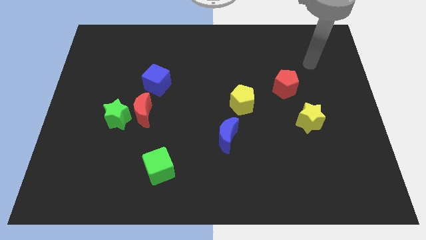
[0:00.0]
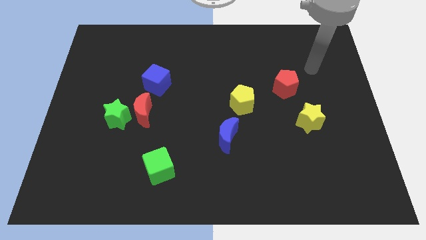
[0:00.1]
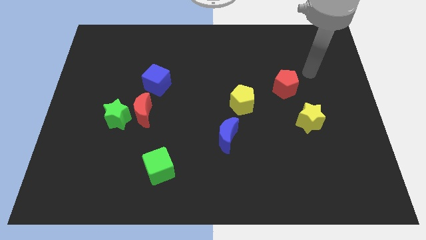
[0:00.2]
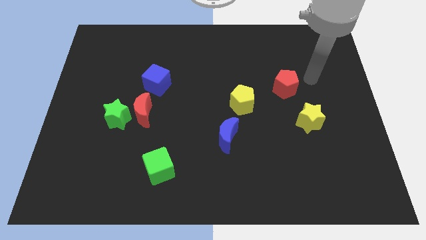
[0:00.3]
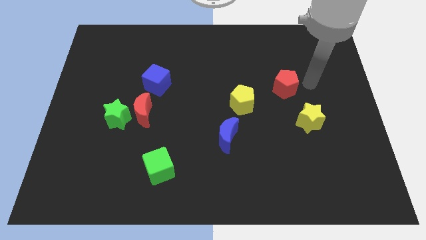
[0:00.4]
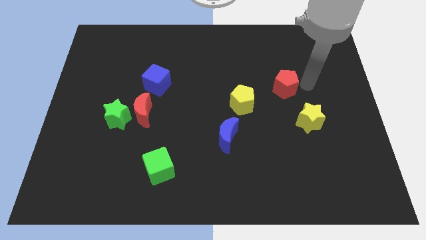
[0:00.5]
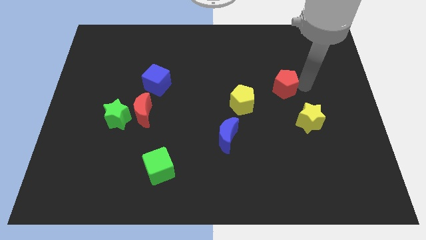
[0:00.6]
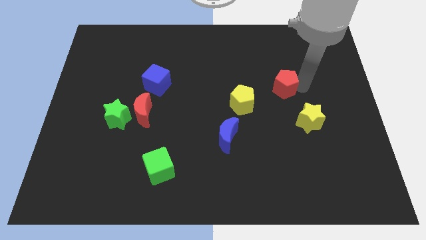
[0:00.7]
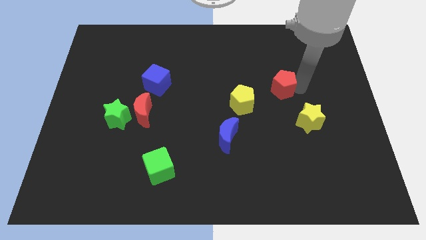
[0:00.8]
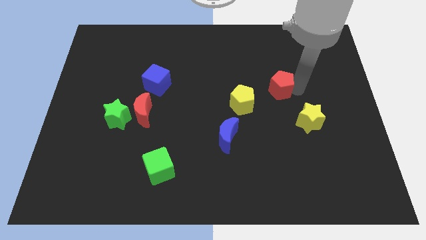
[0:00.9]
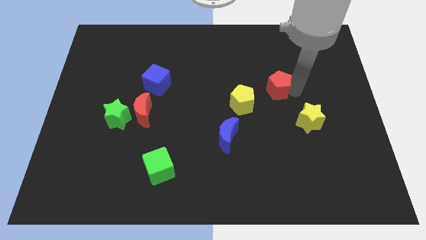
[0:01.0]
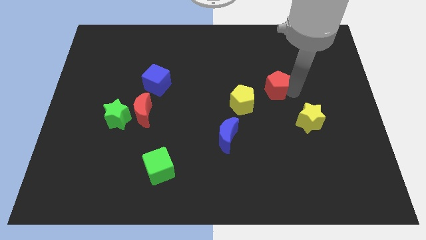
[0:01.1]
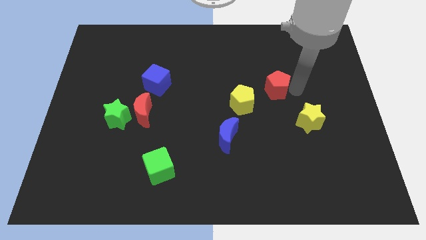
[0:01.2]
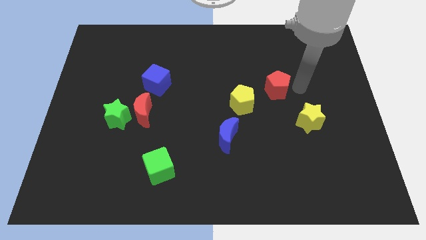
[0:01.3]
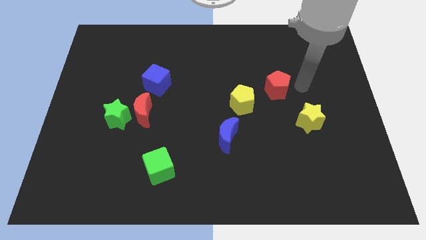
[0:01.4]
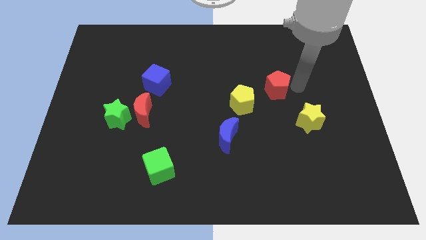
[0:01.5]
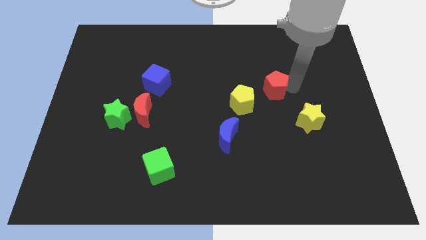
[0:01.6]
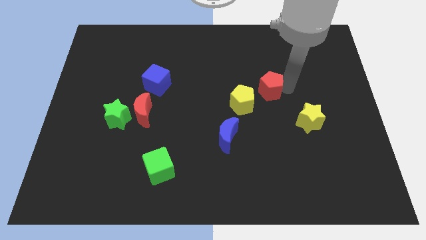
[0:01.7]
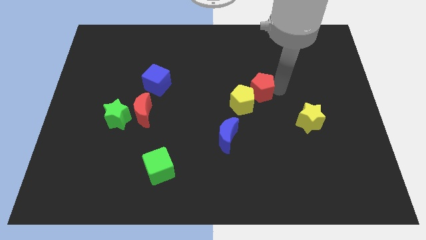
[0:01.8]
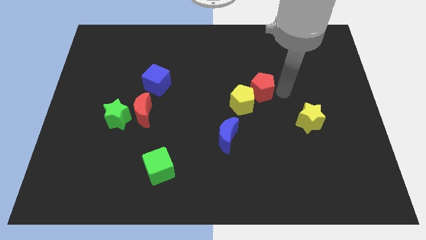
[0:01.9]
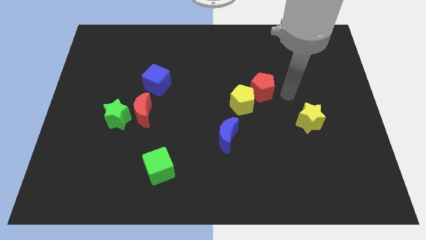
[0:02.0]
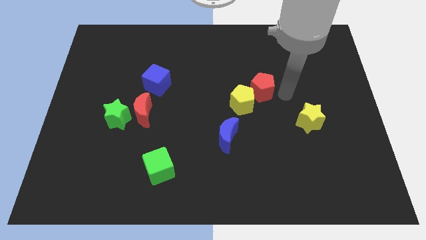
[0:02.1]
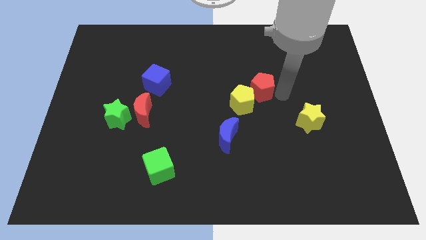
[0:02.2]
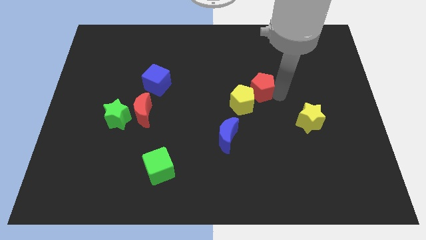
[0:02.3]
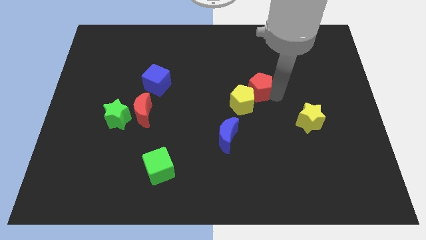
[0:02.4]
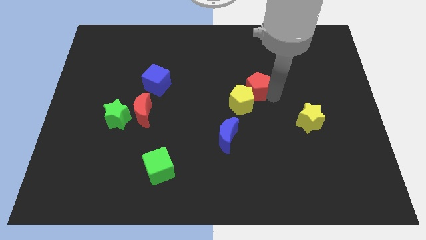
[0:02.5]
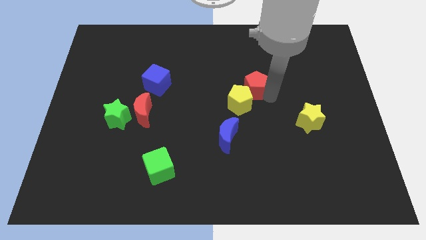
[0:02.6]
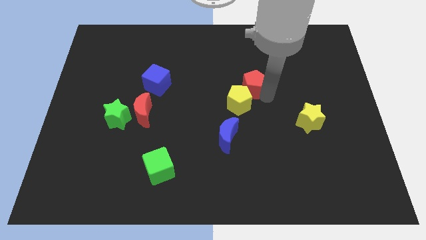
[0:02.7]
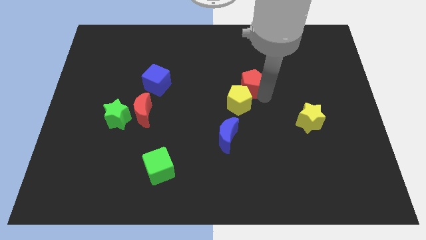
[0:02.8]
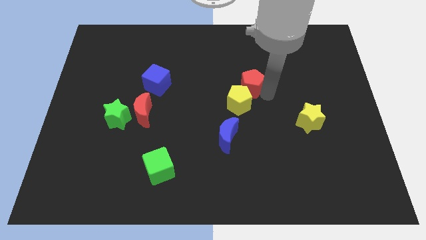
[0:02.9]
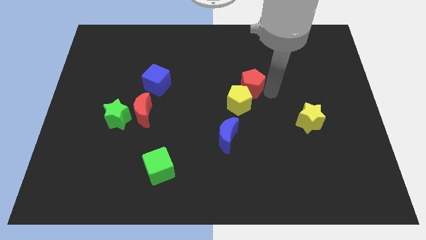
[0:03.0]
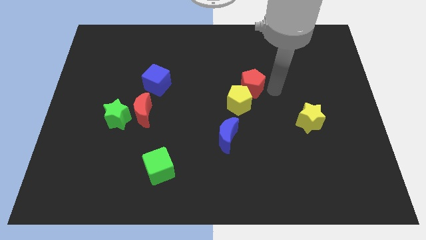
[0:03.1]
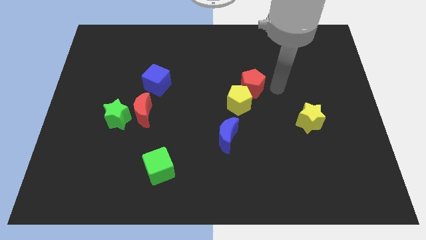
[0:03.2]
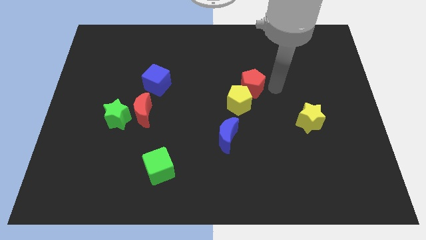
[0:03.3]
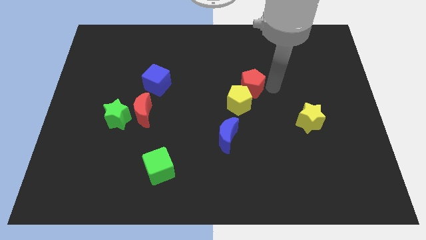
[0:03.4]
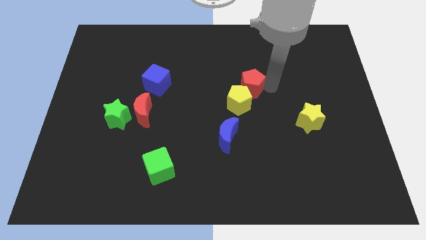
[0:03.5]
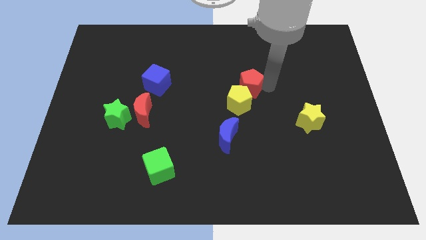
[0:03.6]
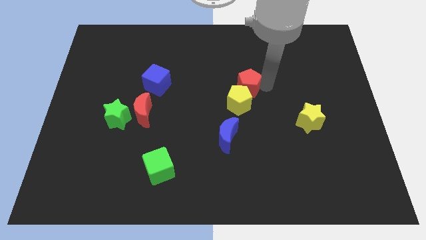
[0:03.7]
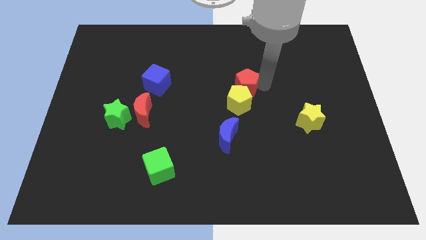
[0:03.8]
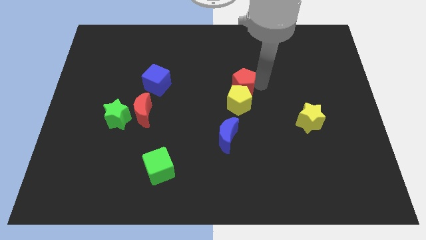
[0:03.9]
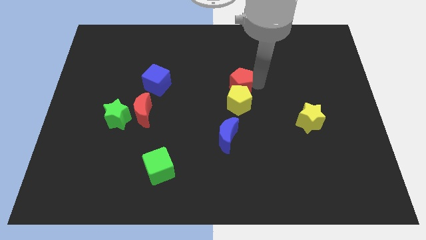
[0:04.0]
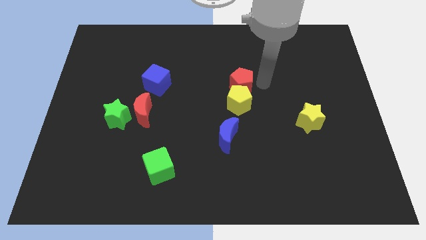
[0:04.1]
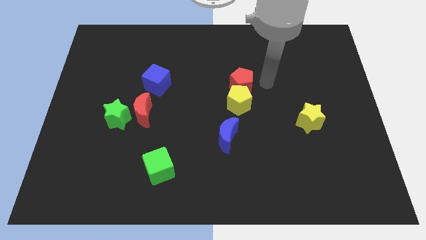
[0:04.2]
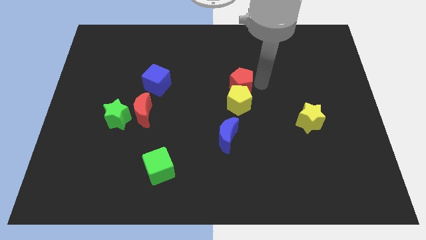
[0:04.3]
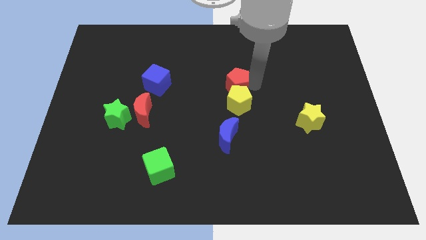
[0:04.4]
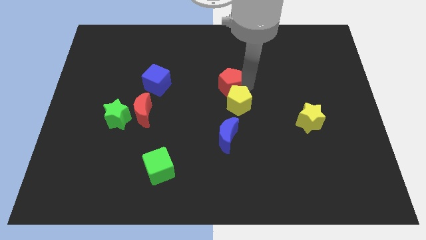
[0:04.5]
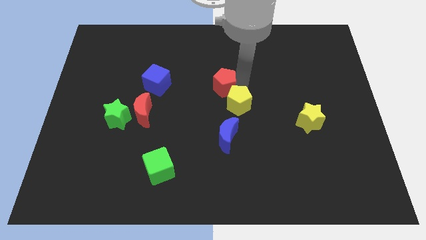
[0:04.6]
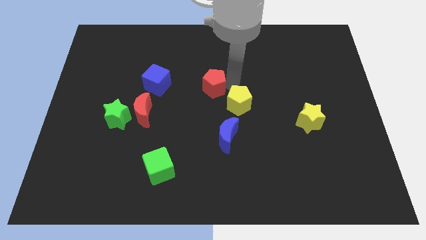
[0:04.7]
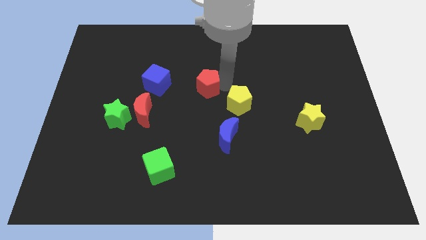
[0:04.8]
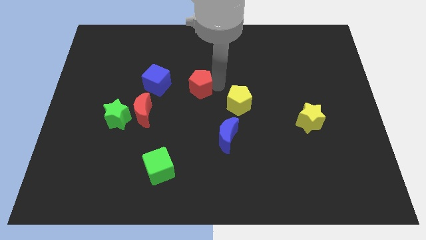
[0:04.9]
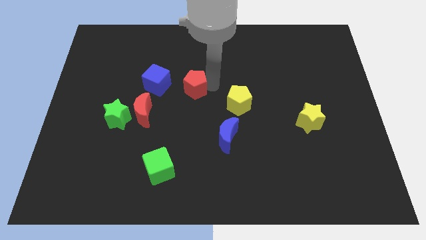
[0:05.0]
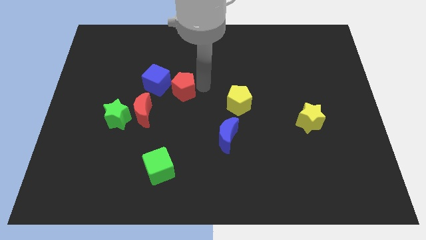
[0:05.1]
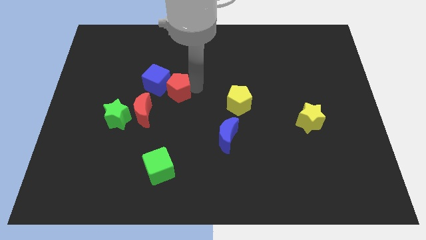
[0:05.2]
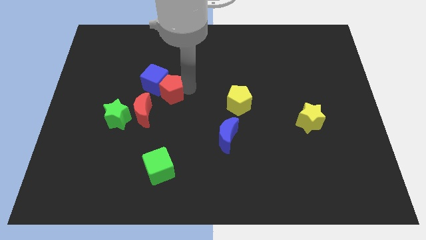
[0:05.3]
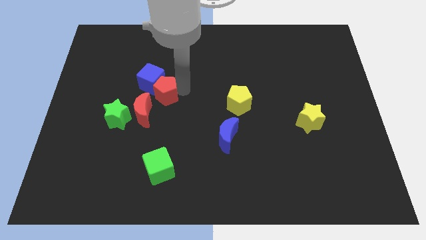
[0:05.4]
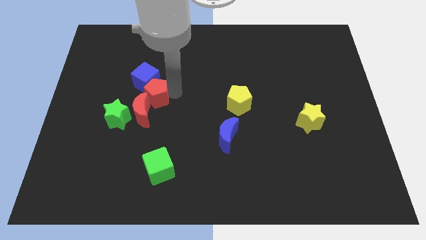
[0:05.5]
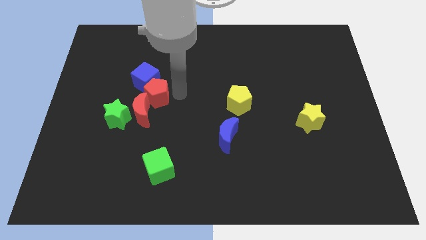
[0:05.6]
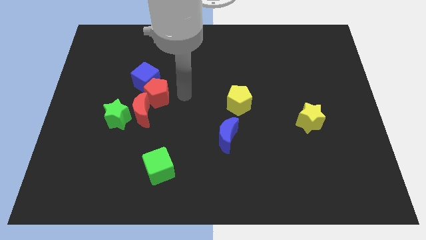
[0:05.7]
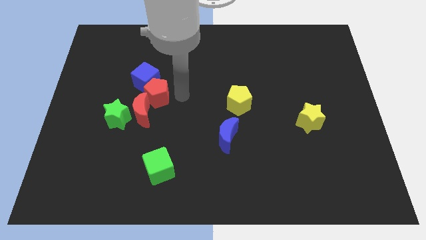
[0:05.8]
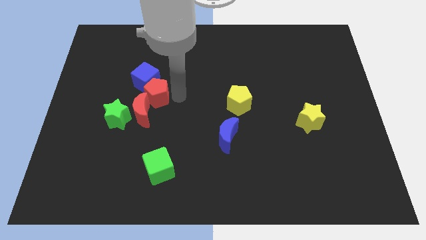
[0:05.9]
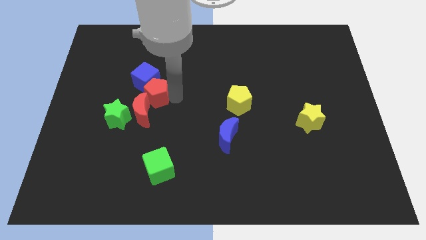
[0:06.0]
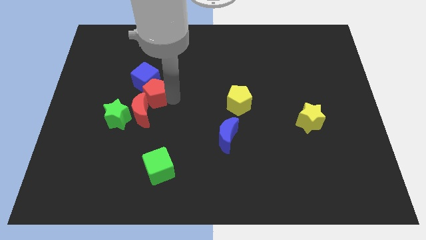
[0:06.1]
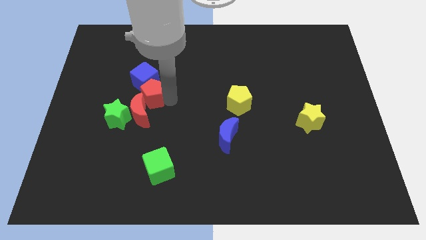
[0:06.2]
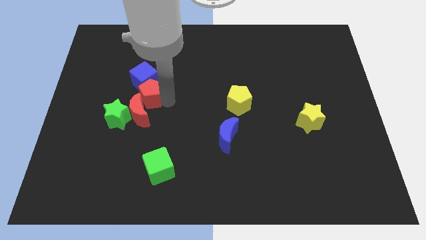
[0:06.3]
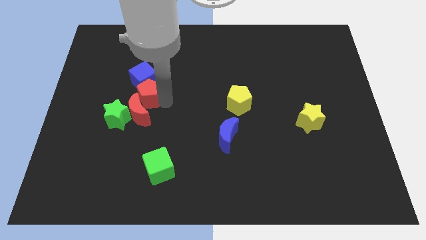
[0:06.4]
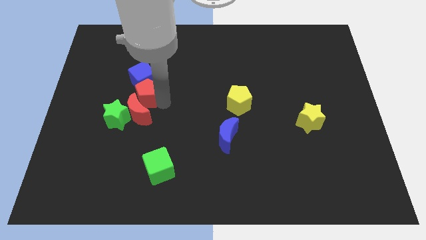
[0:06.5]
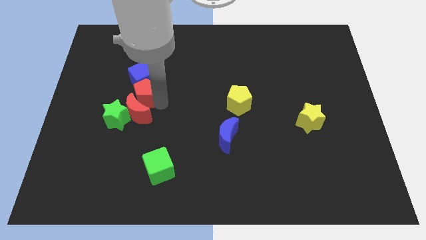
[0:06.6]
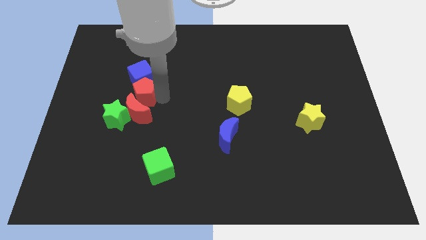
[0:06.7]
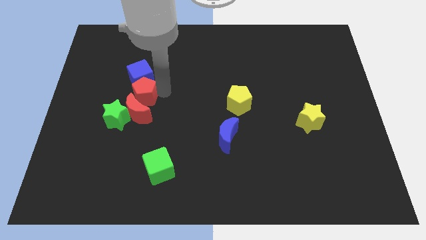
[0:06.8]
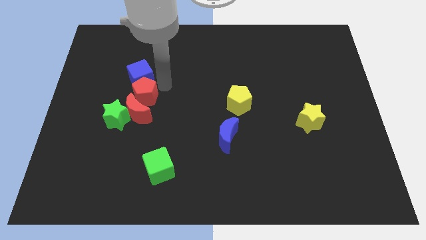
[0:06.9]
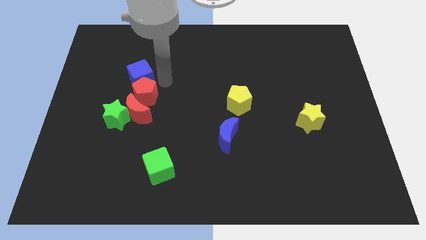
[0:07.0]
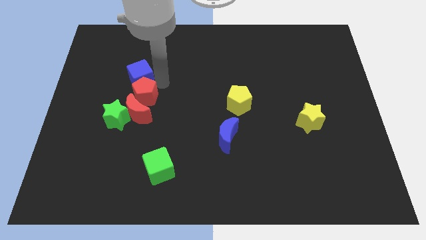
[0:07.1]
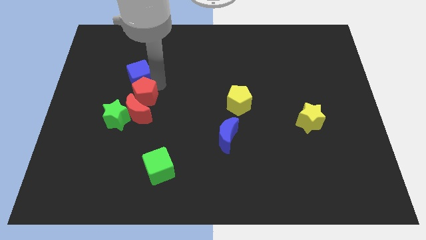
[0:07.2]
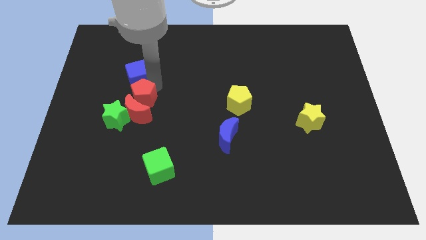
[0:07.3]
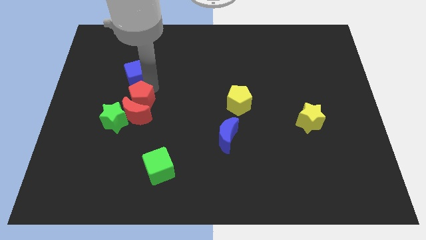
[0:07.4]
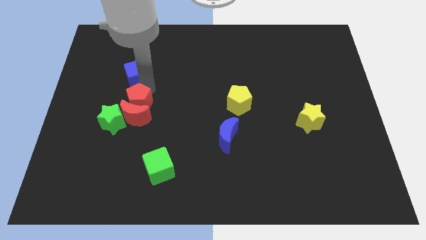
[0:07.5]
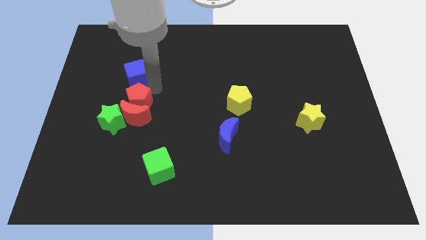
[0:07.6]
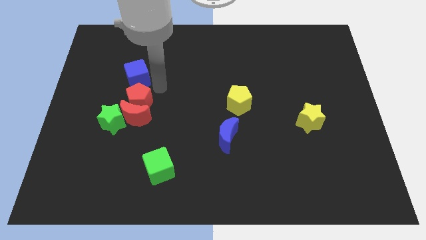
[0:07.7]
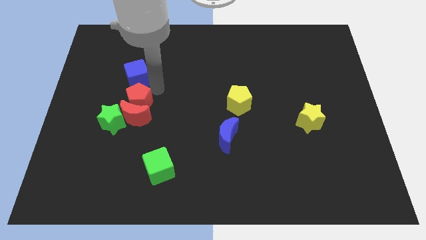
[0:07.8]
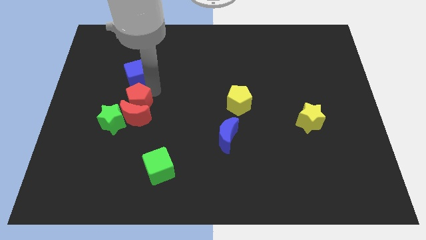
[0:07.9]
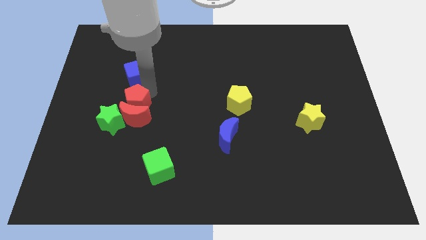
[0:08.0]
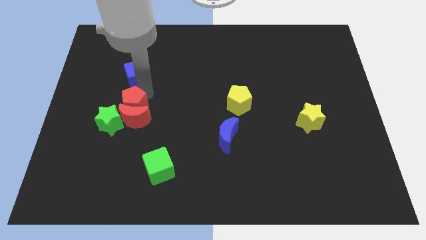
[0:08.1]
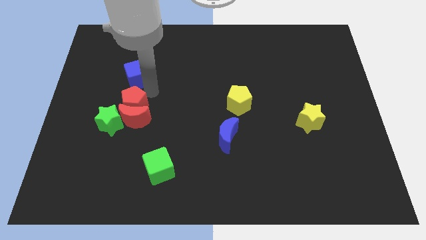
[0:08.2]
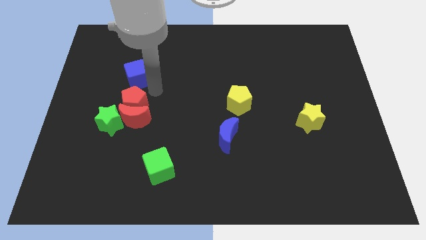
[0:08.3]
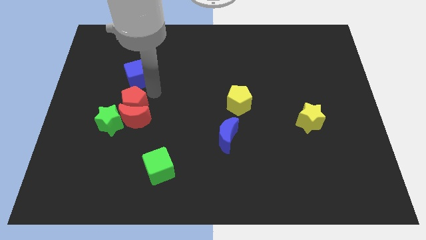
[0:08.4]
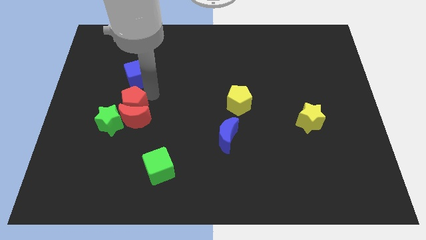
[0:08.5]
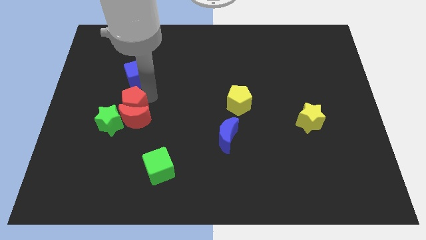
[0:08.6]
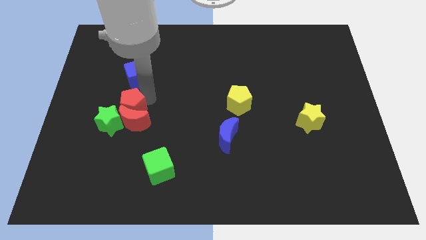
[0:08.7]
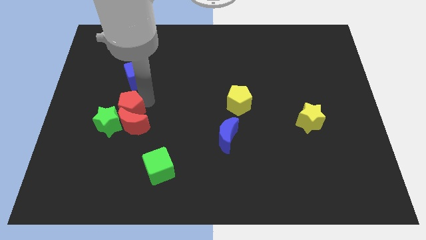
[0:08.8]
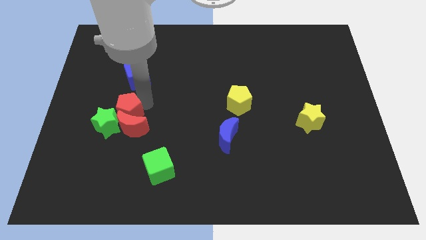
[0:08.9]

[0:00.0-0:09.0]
move the red pentagon close to the green star
